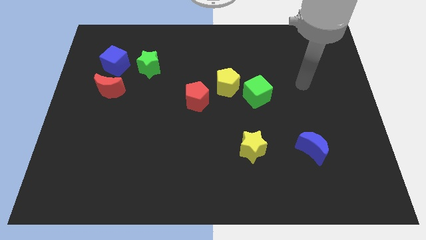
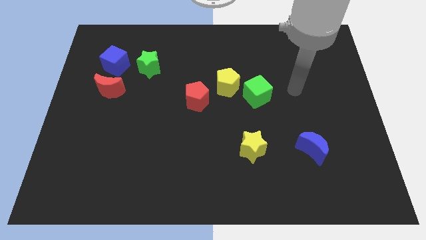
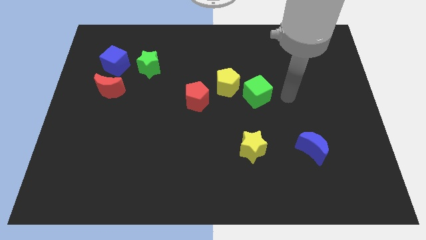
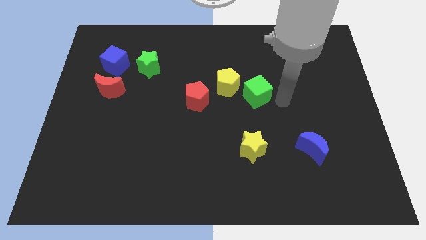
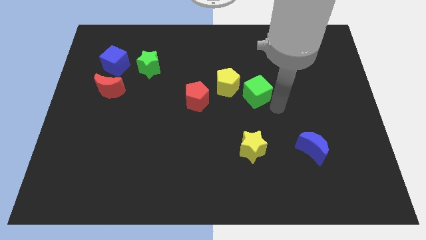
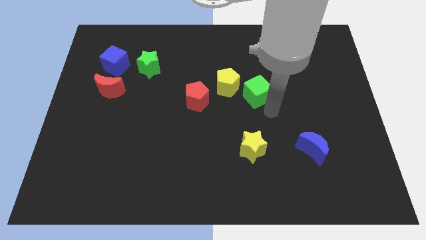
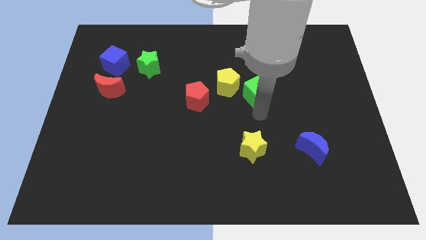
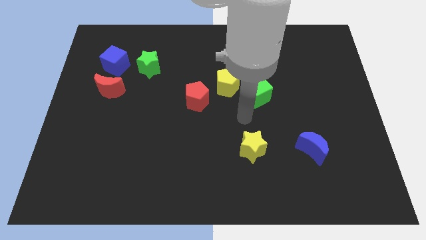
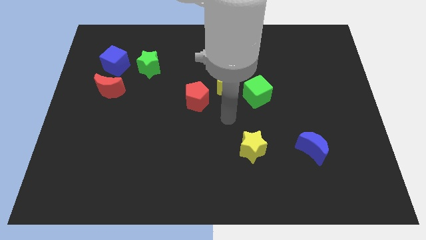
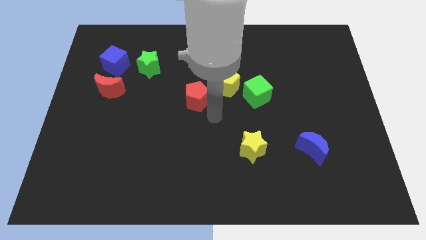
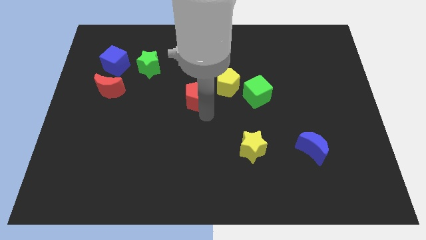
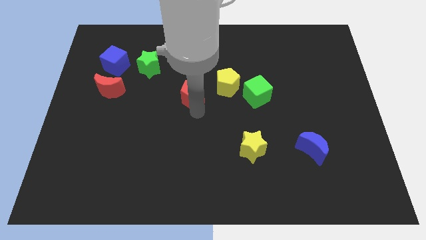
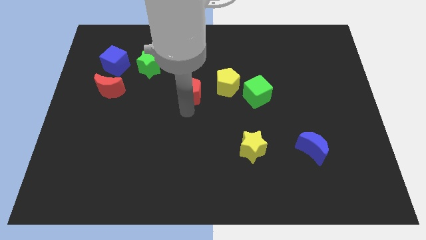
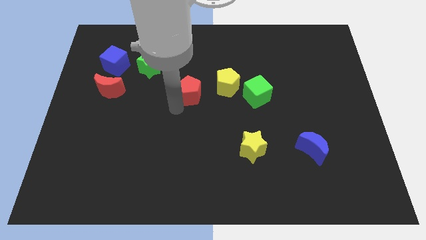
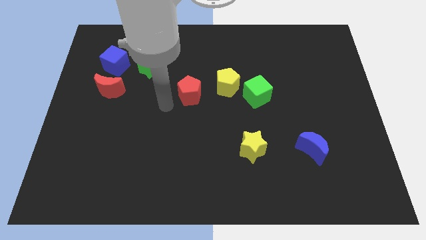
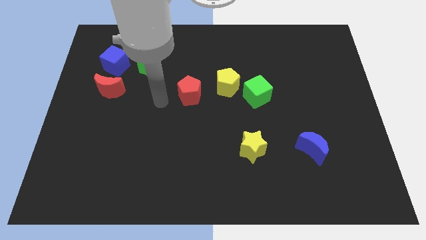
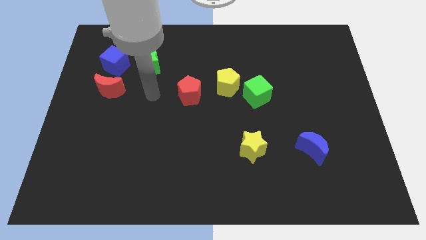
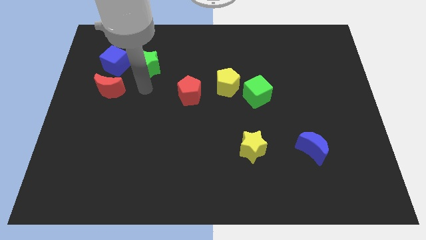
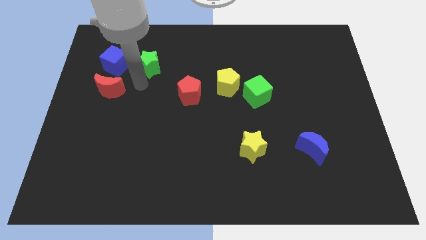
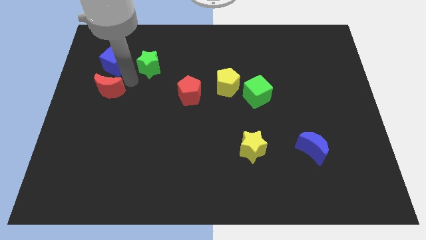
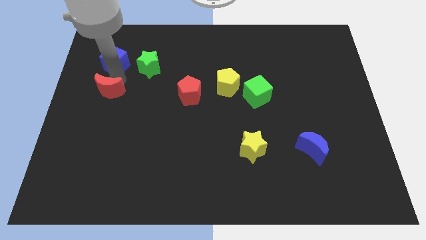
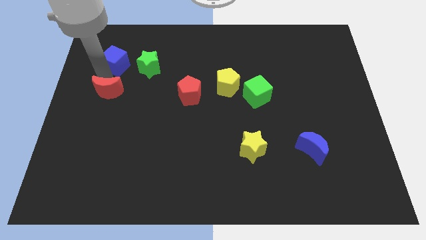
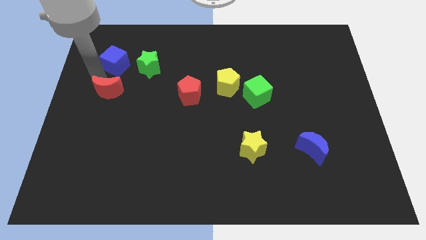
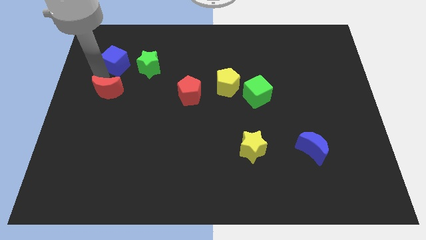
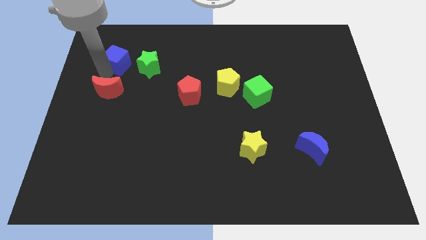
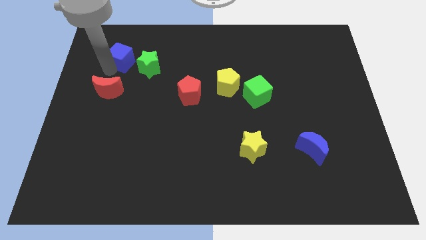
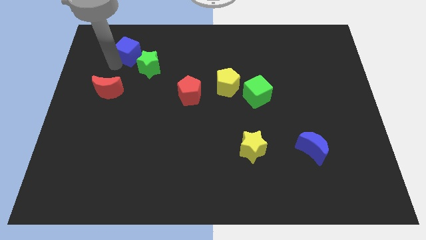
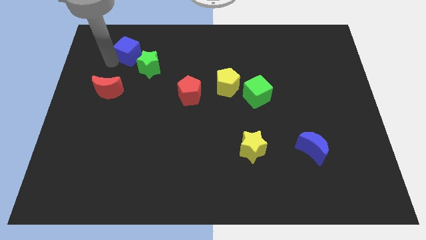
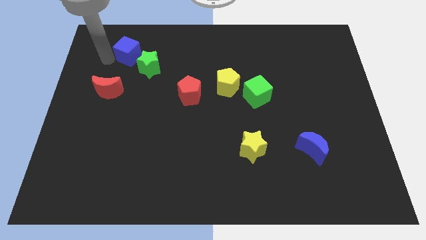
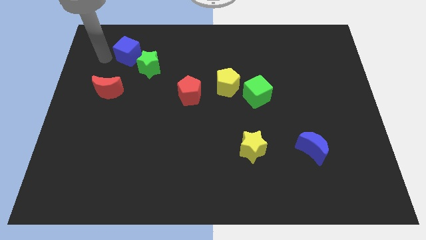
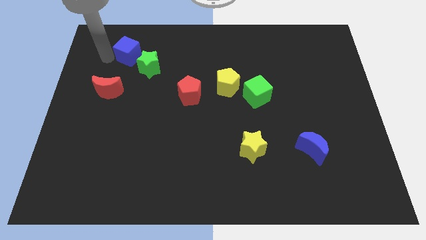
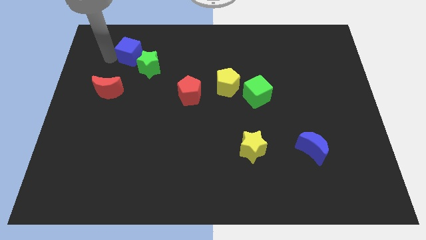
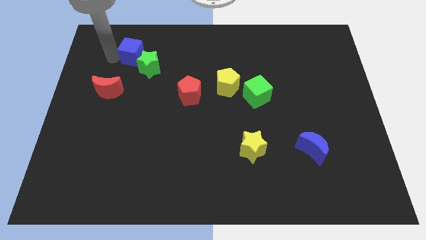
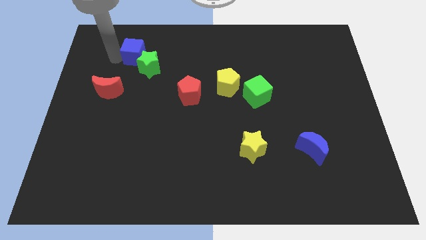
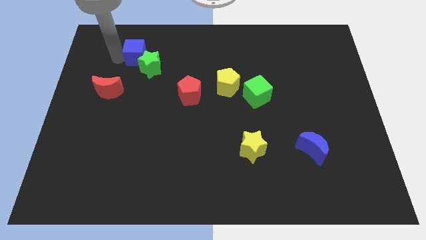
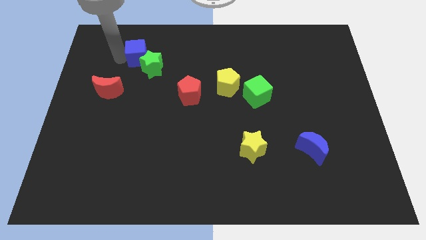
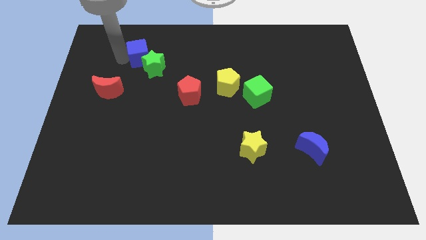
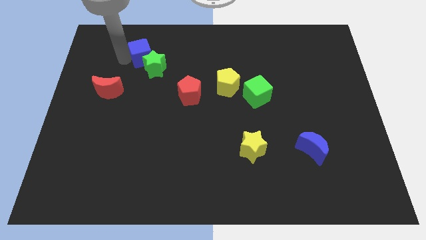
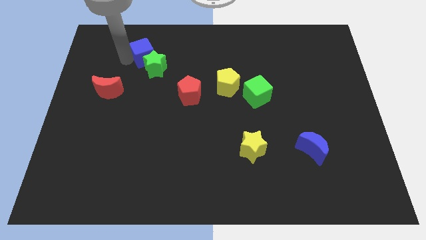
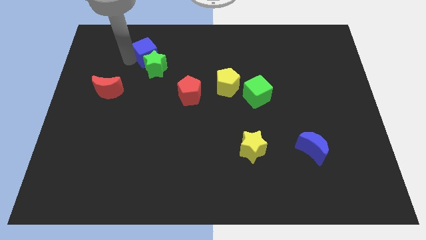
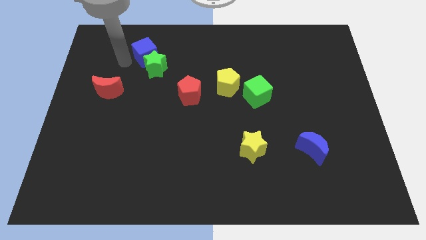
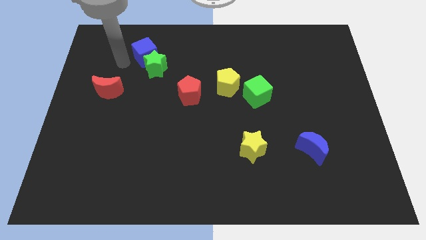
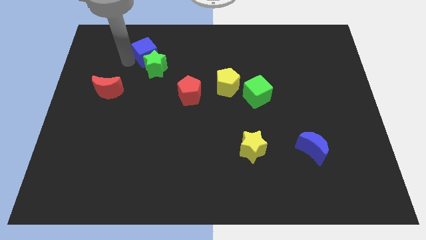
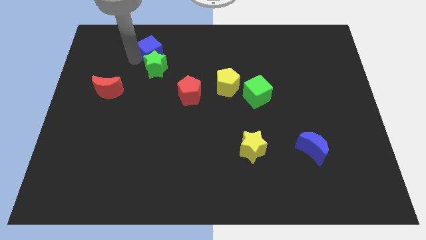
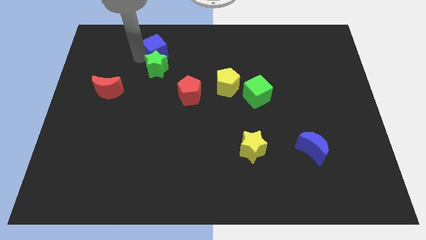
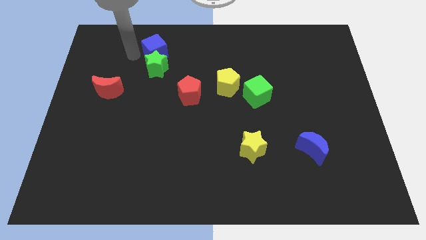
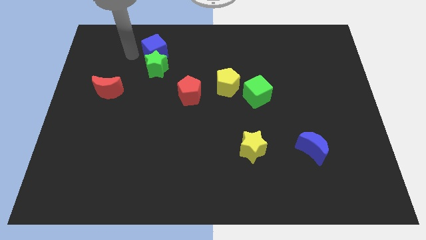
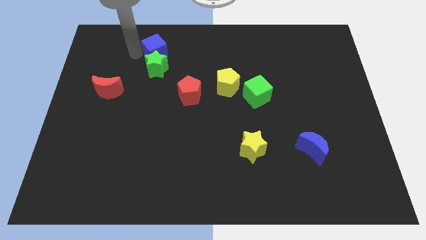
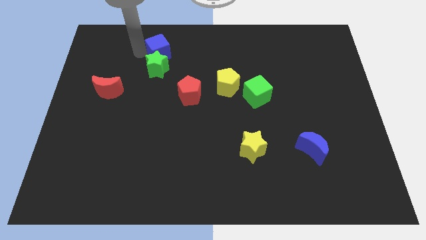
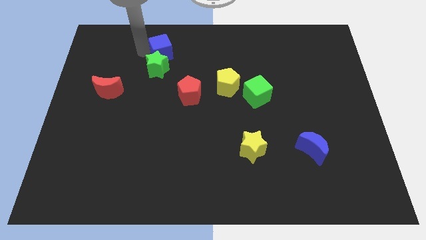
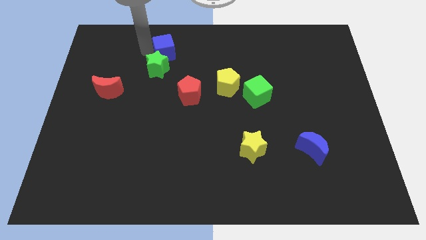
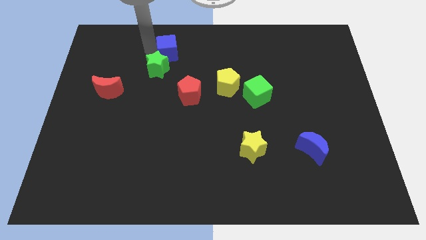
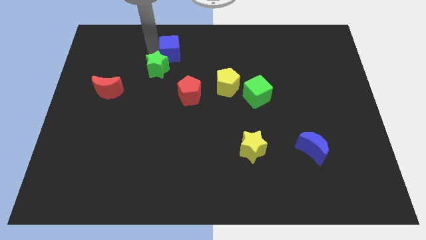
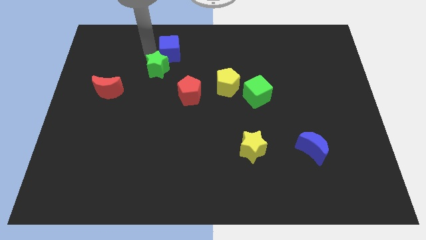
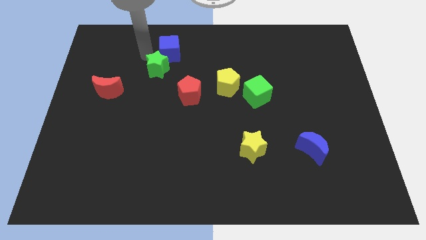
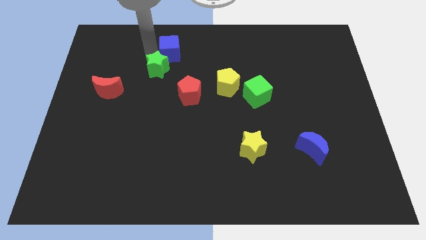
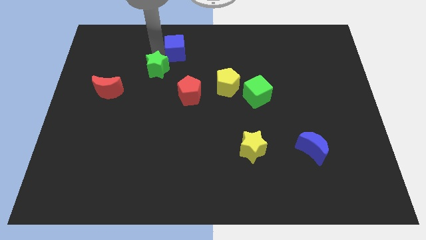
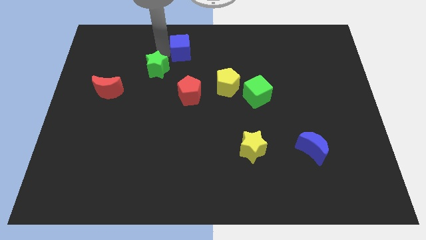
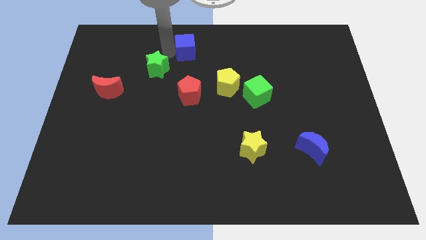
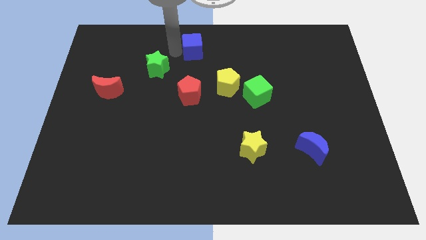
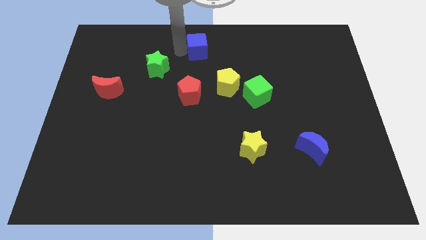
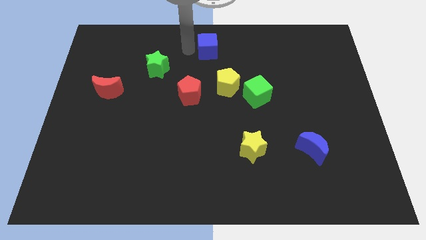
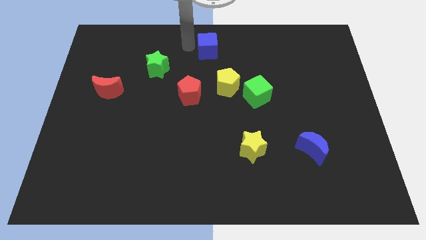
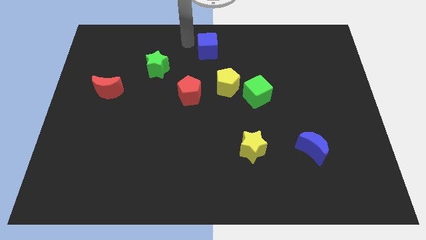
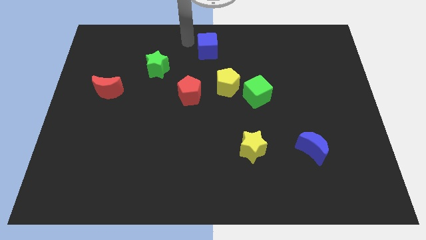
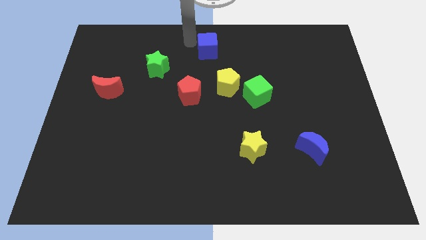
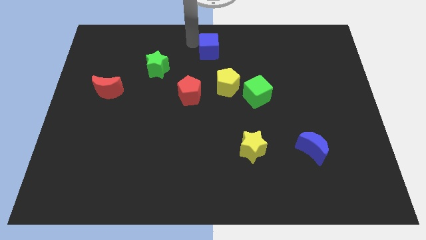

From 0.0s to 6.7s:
put the blue cube to the top side of the yellow pentagon
